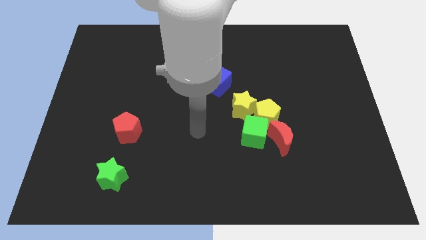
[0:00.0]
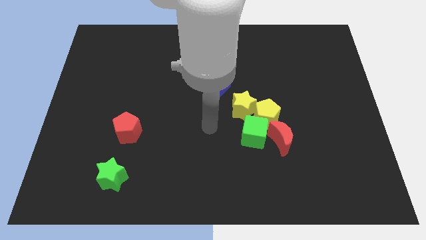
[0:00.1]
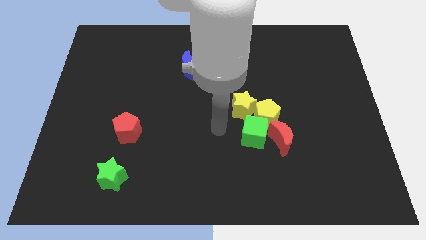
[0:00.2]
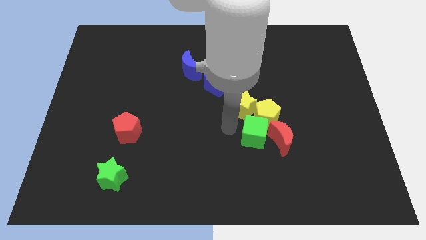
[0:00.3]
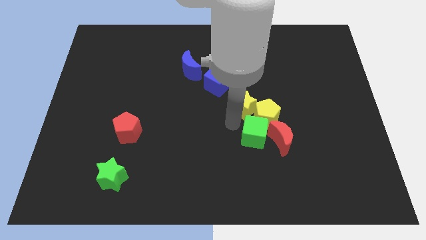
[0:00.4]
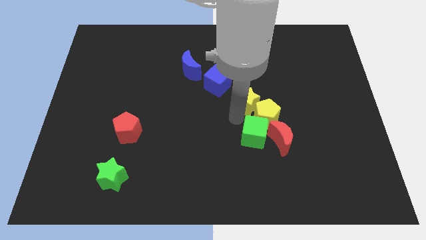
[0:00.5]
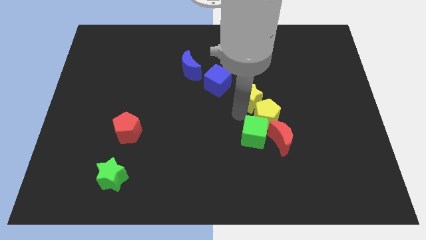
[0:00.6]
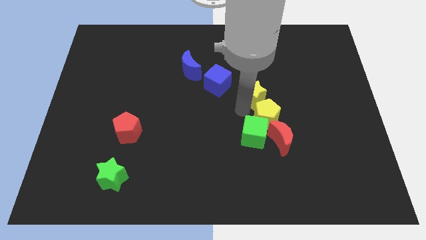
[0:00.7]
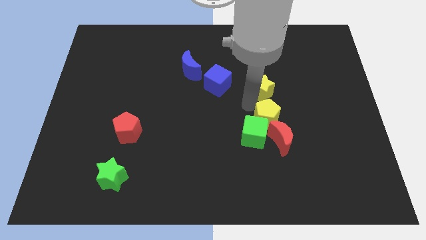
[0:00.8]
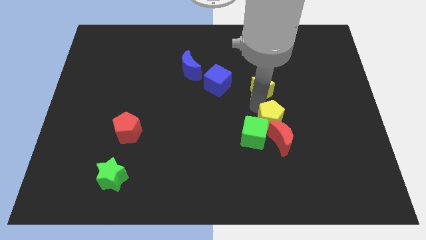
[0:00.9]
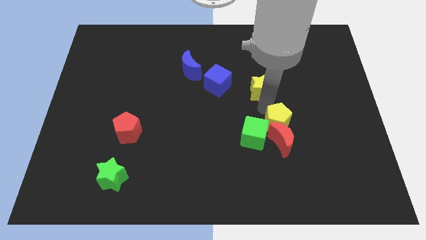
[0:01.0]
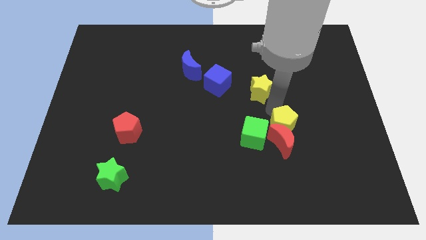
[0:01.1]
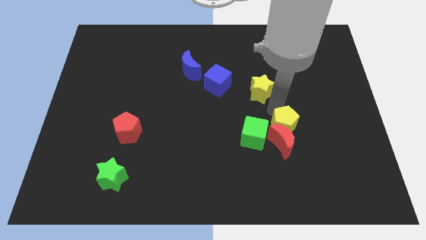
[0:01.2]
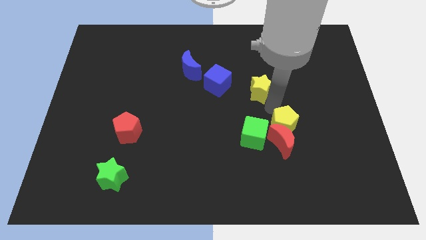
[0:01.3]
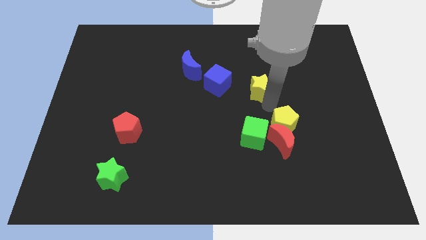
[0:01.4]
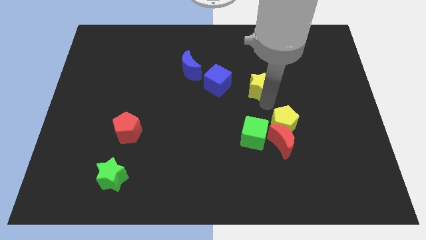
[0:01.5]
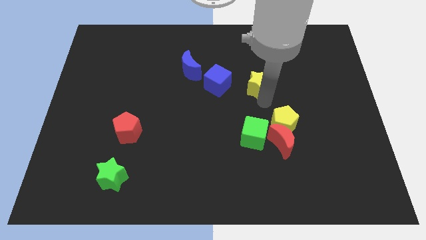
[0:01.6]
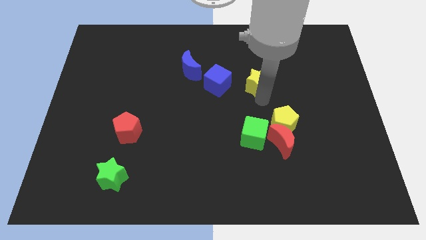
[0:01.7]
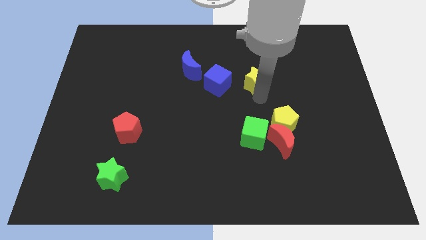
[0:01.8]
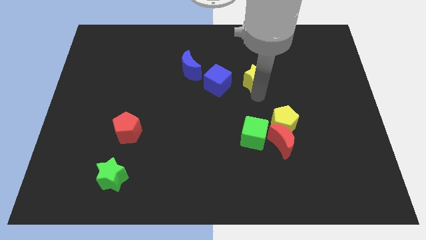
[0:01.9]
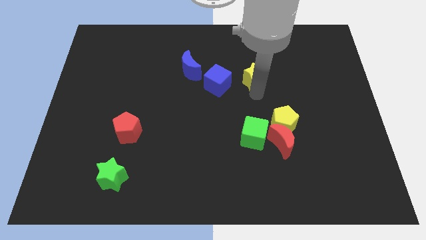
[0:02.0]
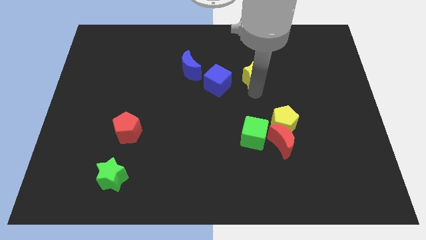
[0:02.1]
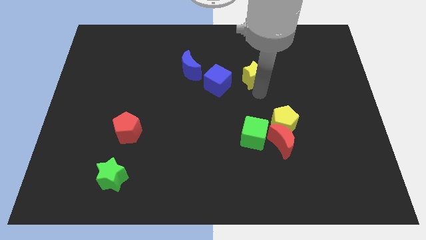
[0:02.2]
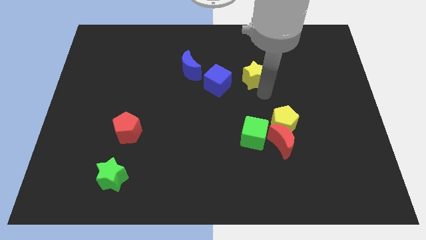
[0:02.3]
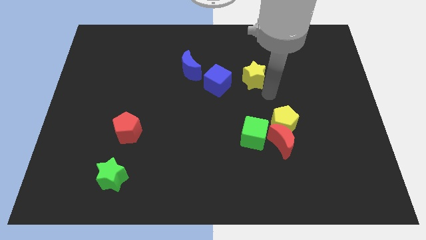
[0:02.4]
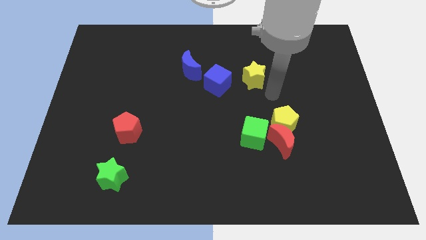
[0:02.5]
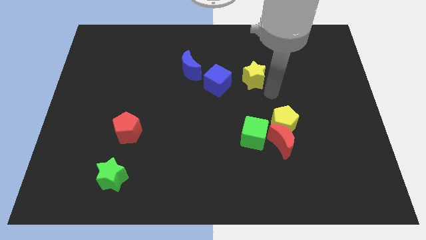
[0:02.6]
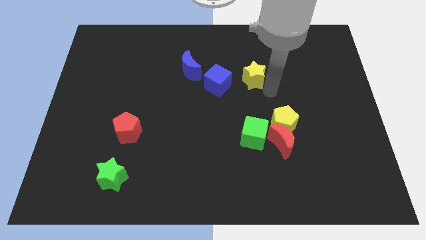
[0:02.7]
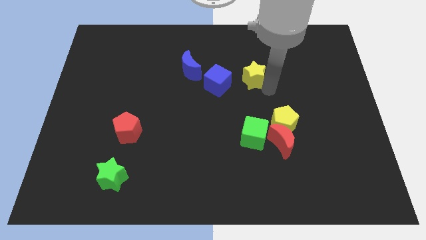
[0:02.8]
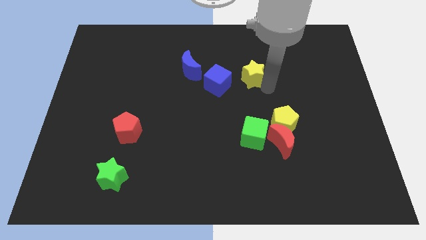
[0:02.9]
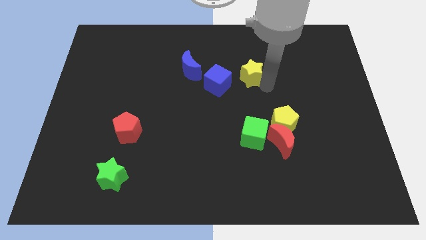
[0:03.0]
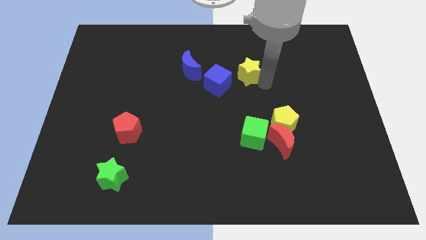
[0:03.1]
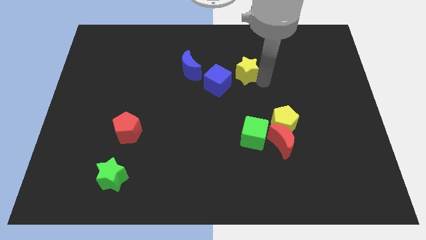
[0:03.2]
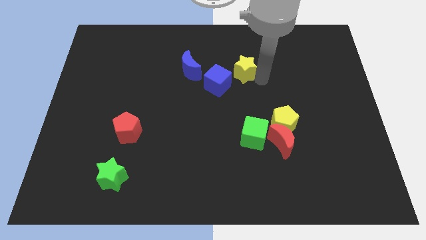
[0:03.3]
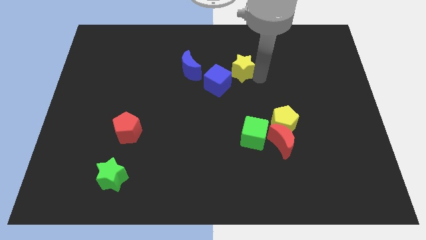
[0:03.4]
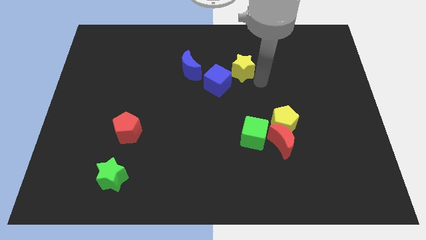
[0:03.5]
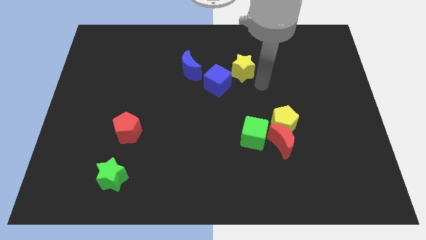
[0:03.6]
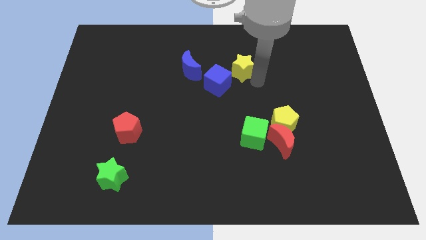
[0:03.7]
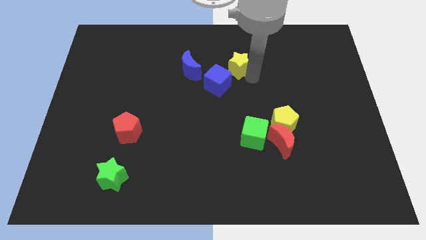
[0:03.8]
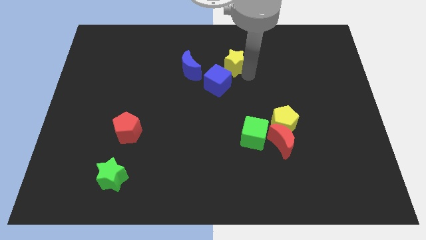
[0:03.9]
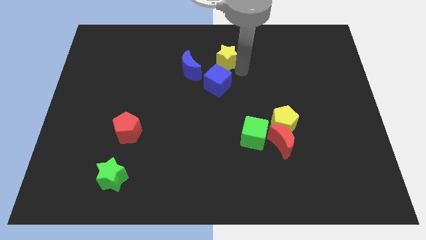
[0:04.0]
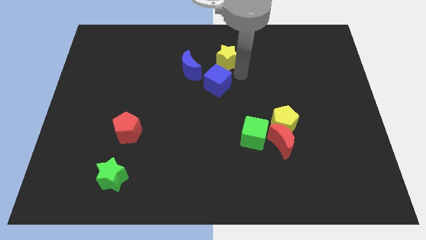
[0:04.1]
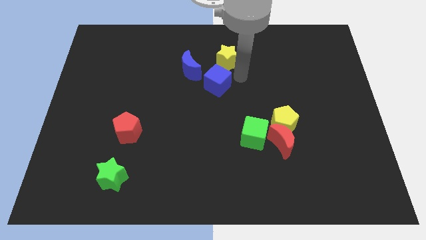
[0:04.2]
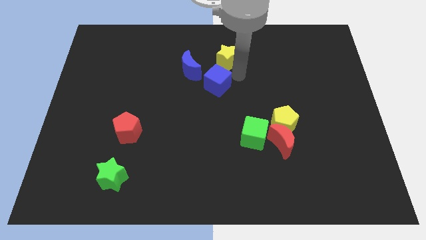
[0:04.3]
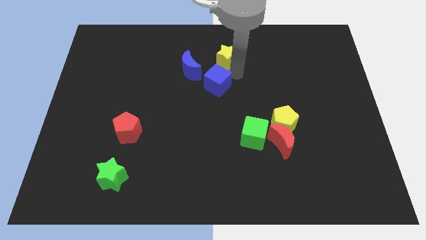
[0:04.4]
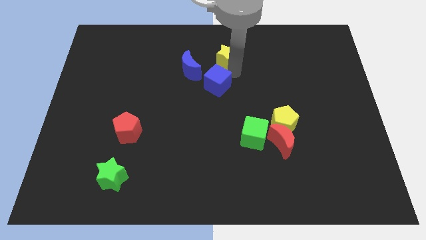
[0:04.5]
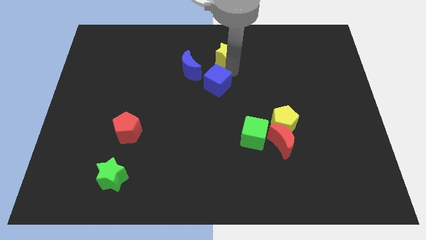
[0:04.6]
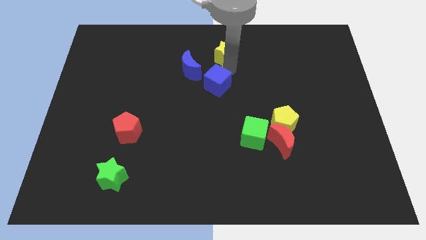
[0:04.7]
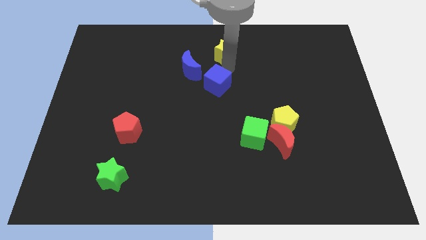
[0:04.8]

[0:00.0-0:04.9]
move the yellow star to the top
